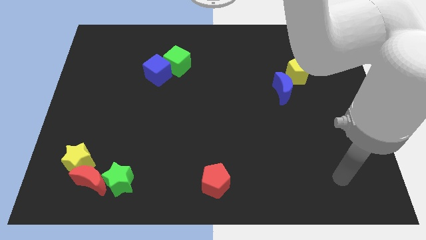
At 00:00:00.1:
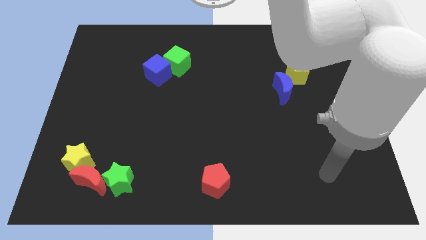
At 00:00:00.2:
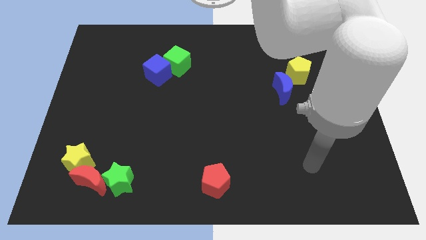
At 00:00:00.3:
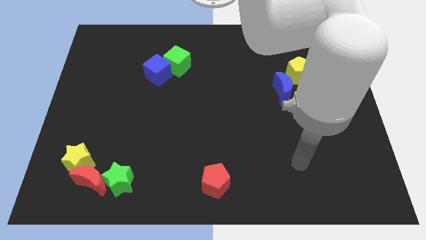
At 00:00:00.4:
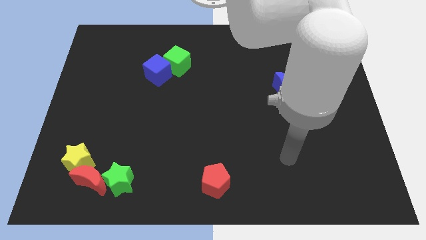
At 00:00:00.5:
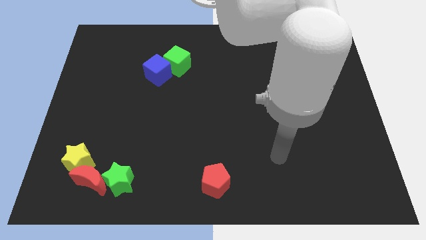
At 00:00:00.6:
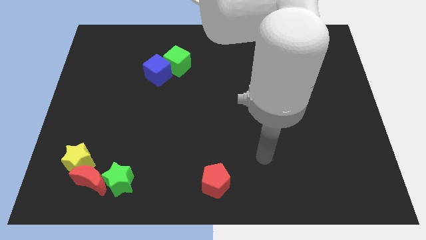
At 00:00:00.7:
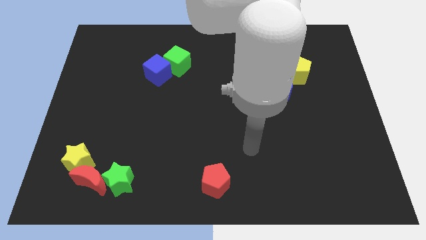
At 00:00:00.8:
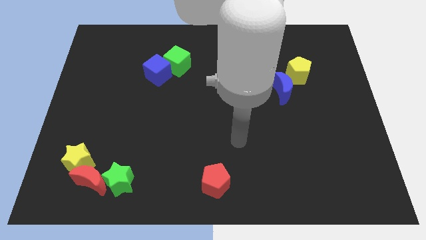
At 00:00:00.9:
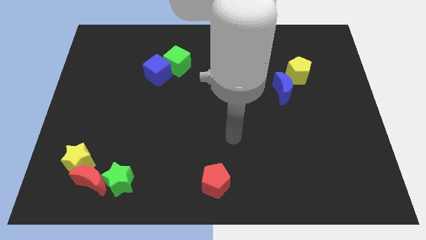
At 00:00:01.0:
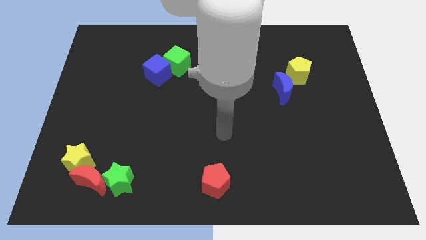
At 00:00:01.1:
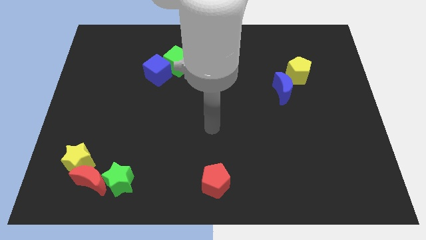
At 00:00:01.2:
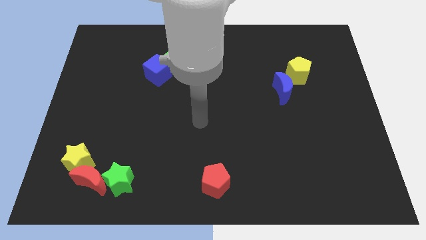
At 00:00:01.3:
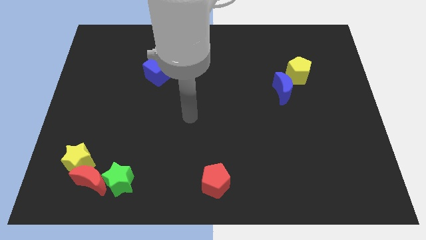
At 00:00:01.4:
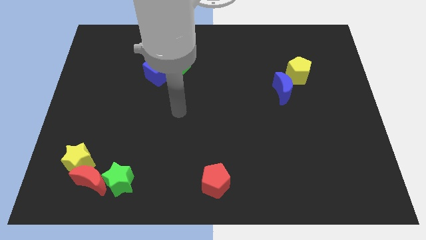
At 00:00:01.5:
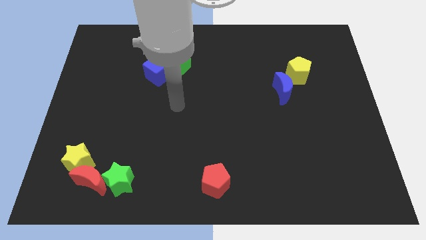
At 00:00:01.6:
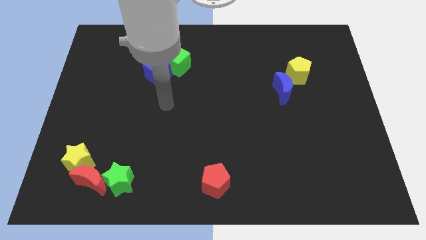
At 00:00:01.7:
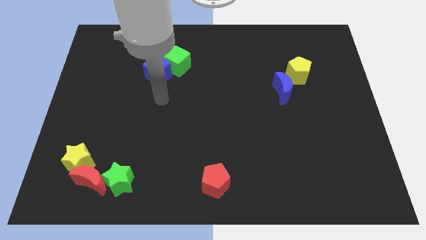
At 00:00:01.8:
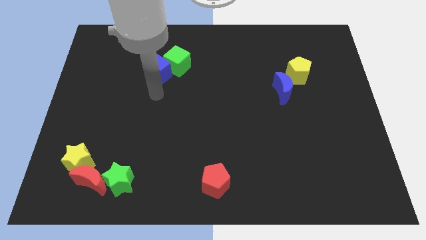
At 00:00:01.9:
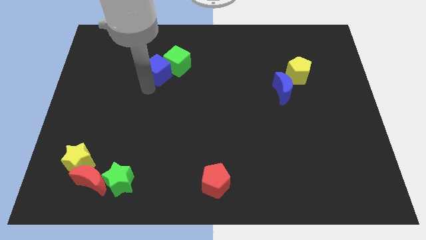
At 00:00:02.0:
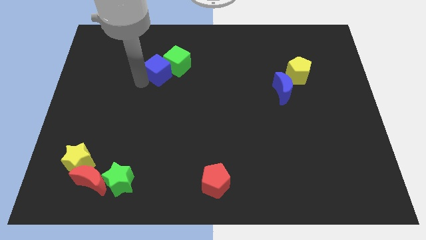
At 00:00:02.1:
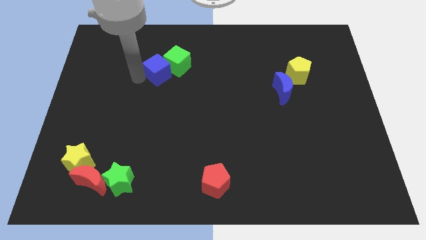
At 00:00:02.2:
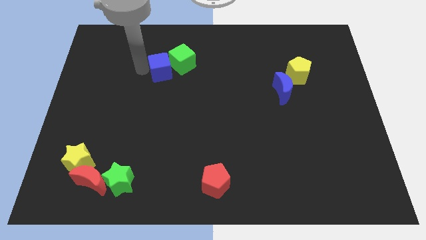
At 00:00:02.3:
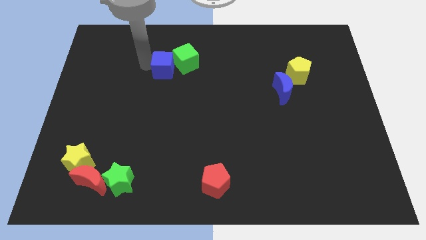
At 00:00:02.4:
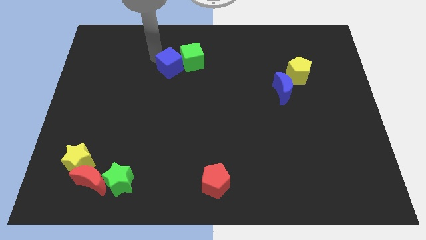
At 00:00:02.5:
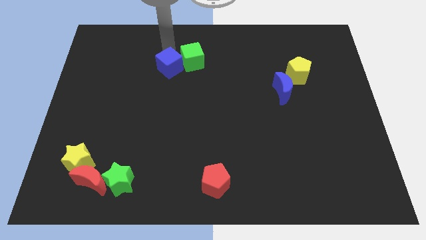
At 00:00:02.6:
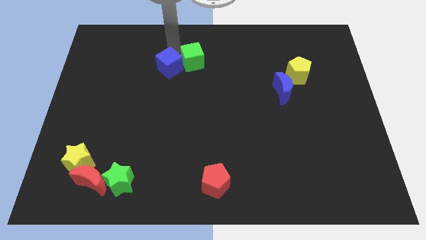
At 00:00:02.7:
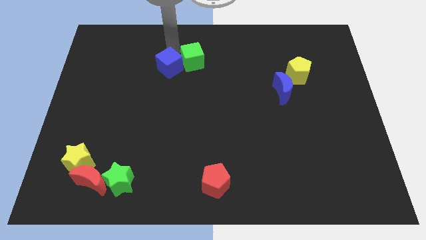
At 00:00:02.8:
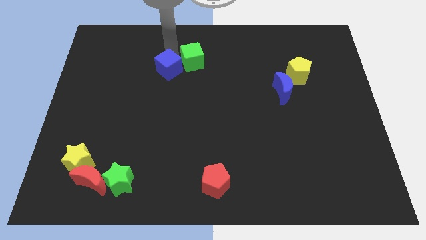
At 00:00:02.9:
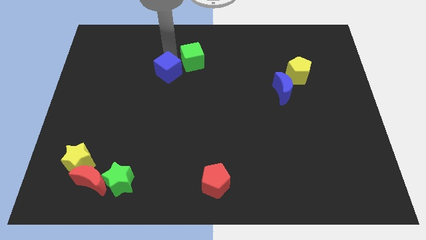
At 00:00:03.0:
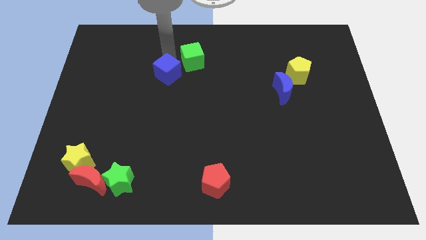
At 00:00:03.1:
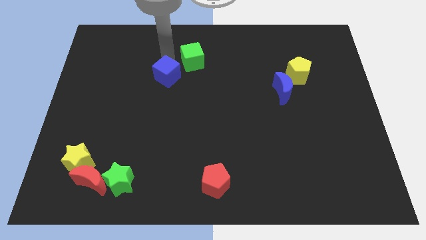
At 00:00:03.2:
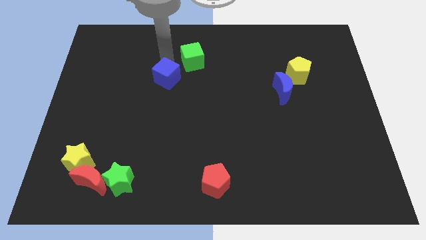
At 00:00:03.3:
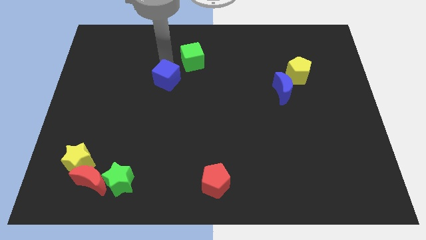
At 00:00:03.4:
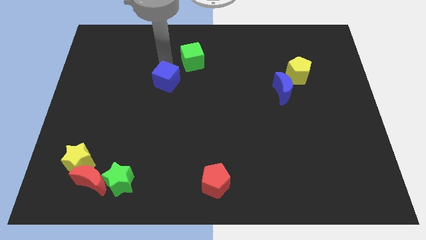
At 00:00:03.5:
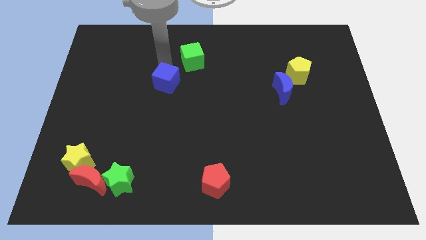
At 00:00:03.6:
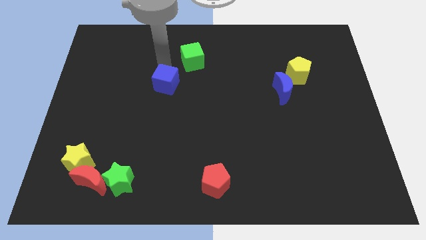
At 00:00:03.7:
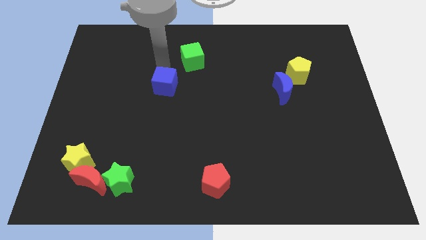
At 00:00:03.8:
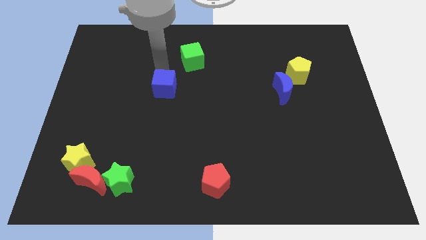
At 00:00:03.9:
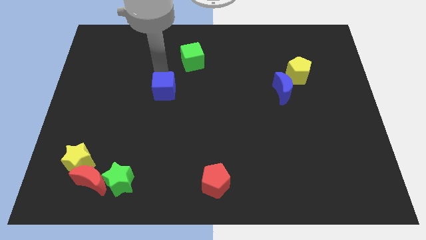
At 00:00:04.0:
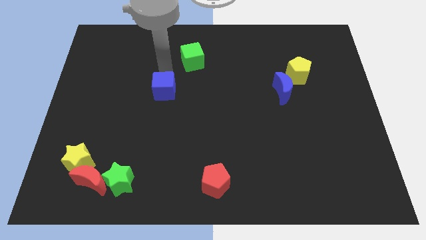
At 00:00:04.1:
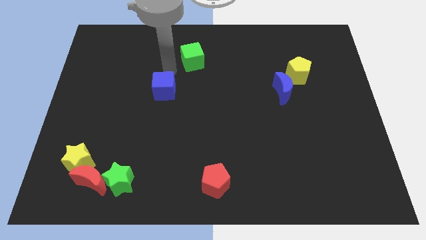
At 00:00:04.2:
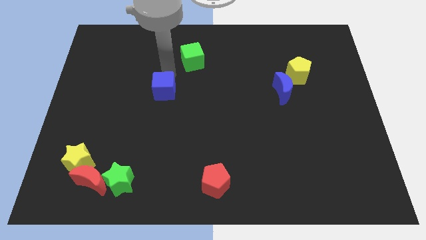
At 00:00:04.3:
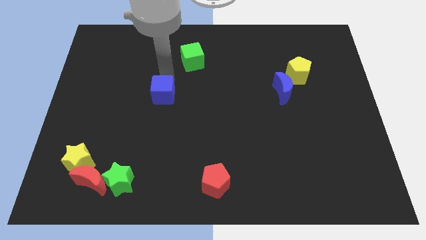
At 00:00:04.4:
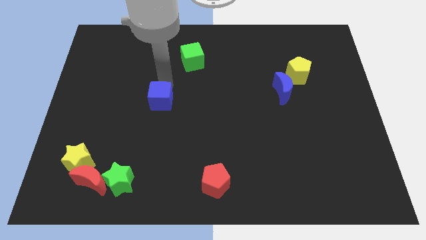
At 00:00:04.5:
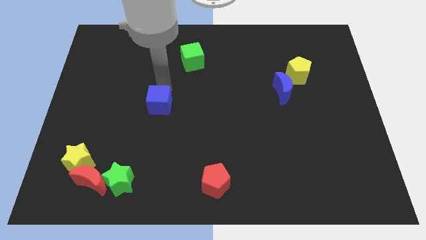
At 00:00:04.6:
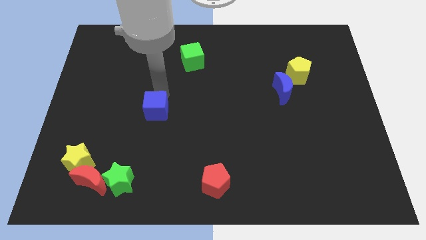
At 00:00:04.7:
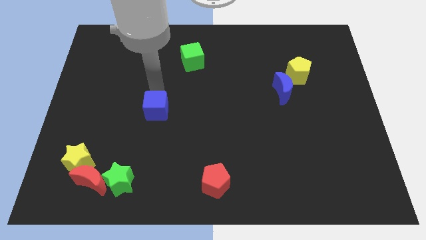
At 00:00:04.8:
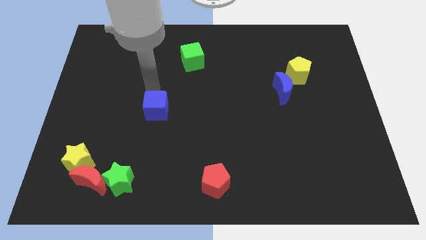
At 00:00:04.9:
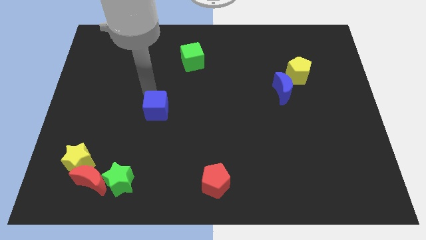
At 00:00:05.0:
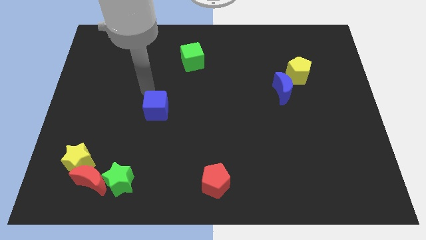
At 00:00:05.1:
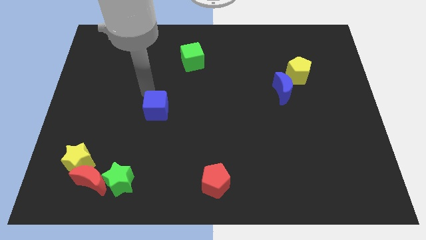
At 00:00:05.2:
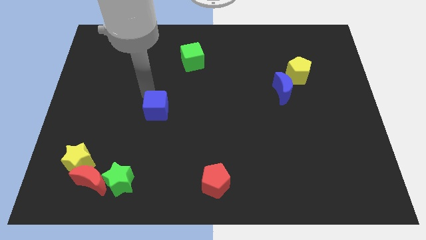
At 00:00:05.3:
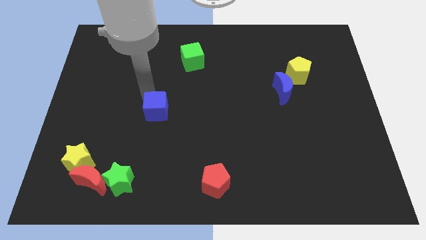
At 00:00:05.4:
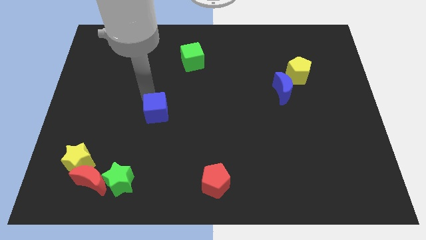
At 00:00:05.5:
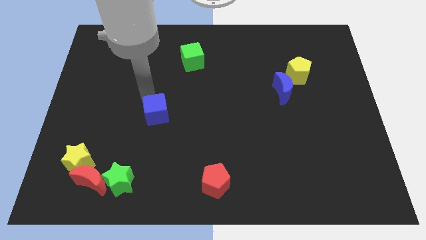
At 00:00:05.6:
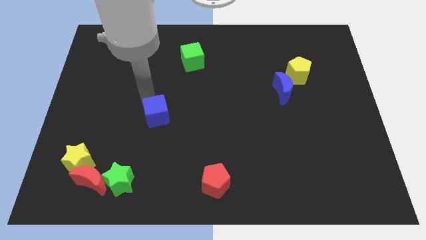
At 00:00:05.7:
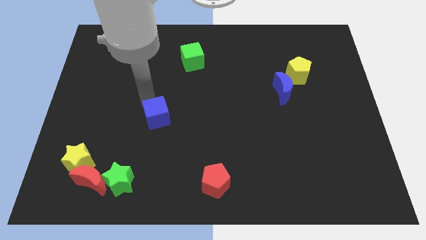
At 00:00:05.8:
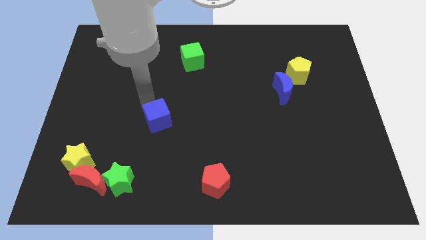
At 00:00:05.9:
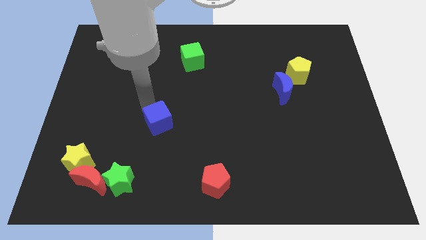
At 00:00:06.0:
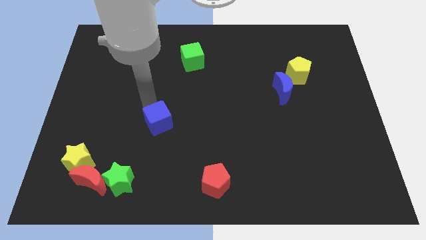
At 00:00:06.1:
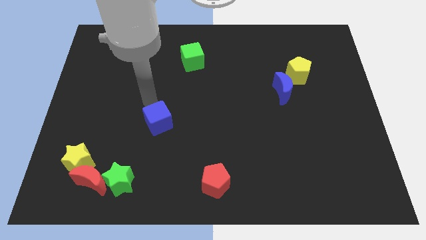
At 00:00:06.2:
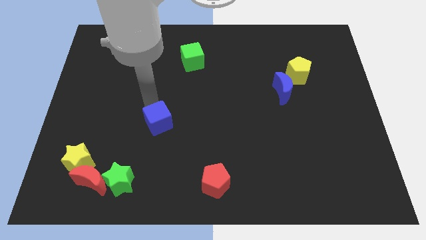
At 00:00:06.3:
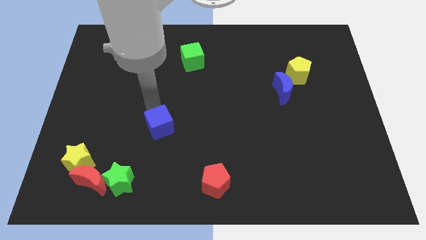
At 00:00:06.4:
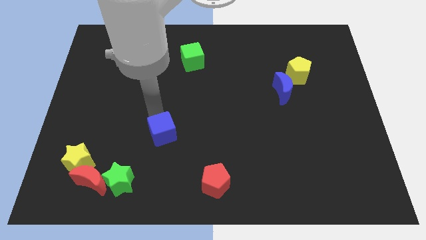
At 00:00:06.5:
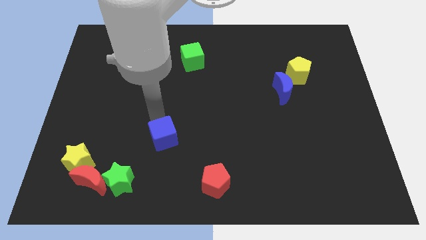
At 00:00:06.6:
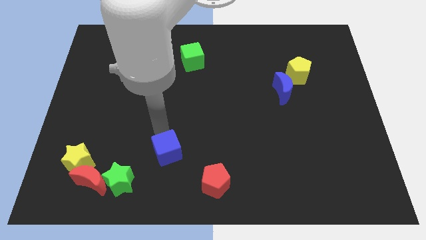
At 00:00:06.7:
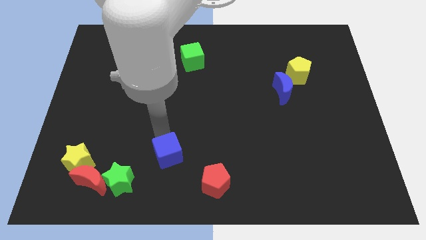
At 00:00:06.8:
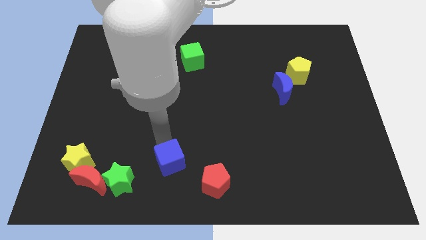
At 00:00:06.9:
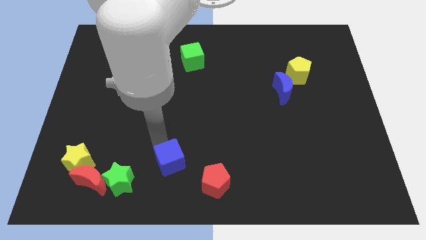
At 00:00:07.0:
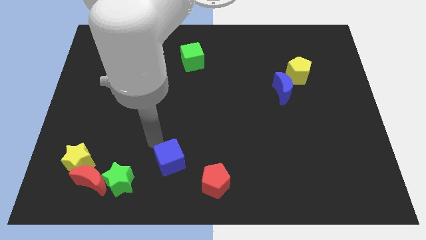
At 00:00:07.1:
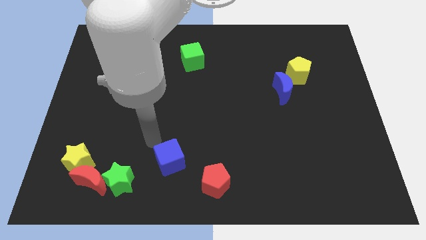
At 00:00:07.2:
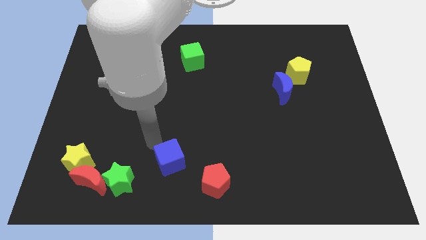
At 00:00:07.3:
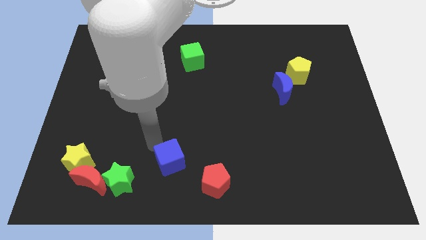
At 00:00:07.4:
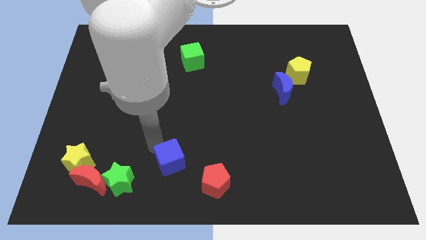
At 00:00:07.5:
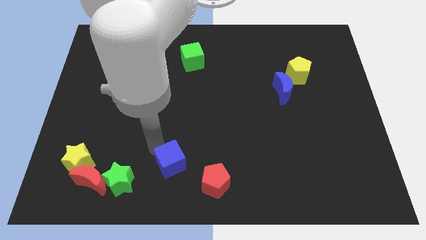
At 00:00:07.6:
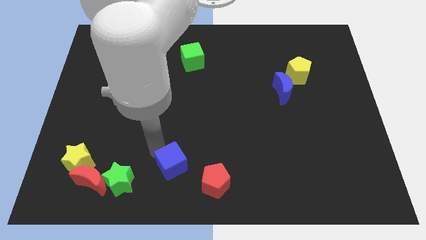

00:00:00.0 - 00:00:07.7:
move the blue cube to the bottom
